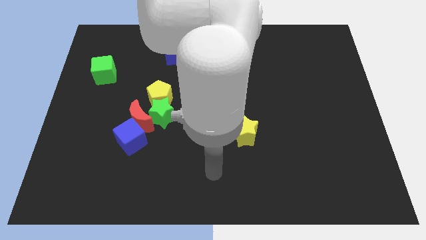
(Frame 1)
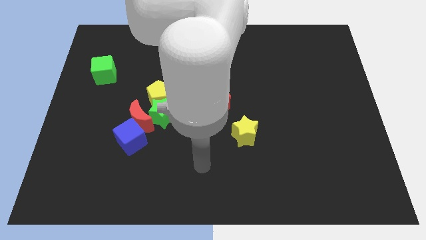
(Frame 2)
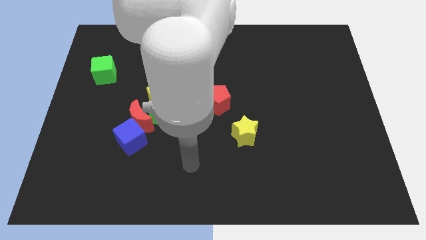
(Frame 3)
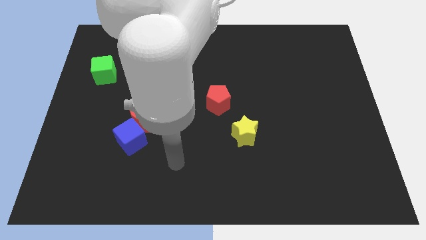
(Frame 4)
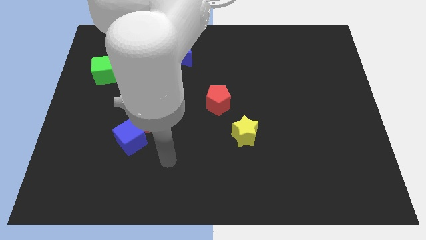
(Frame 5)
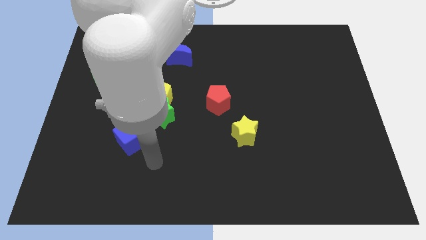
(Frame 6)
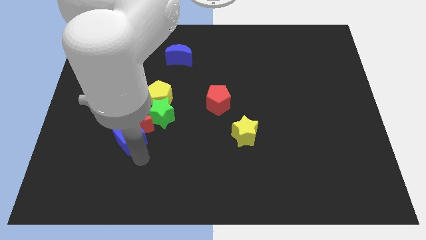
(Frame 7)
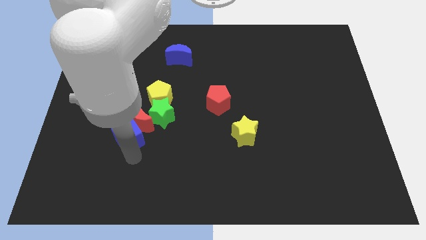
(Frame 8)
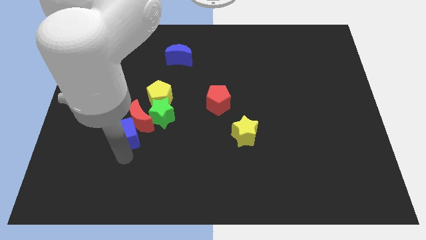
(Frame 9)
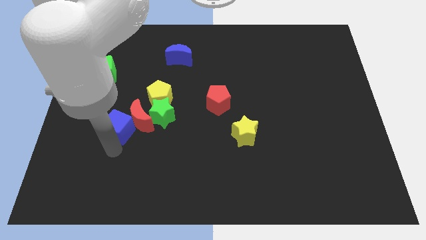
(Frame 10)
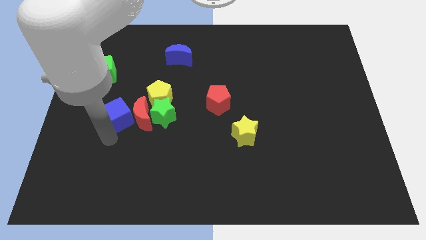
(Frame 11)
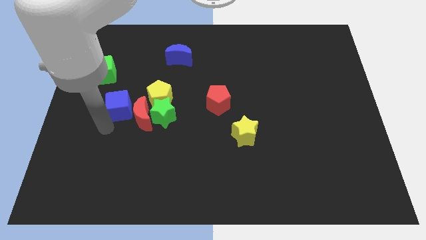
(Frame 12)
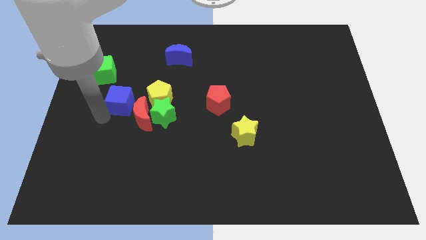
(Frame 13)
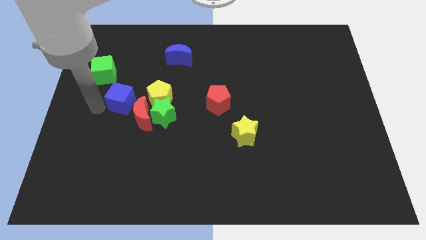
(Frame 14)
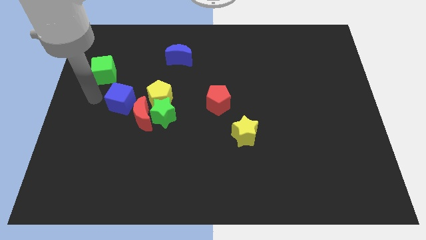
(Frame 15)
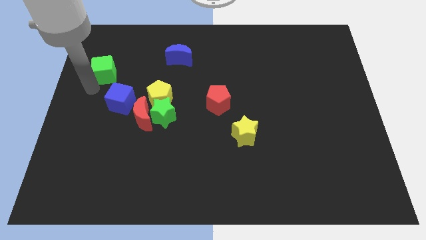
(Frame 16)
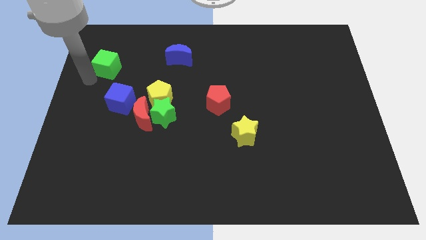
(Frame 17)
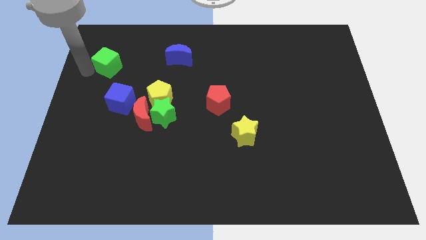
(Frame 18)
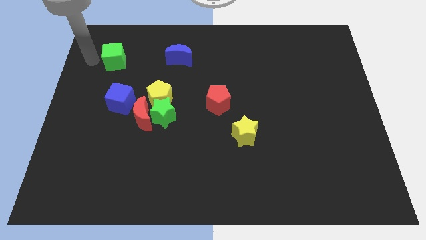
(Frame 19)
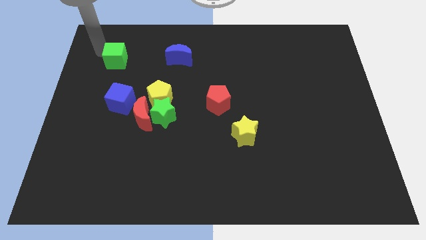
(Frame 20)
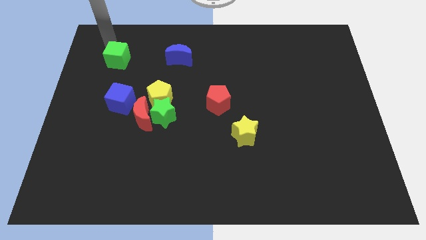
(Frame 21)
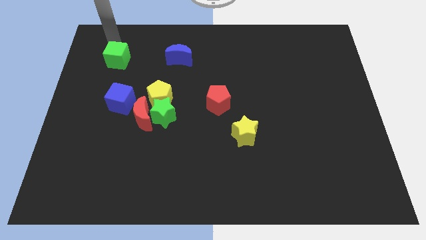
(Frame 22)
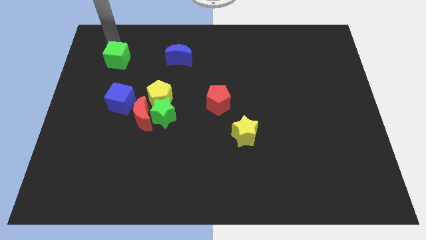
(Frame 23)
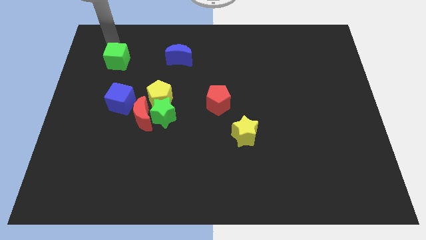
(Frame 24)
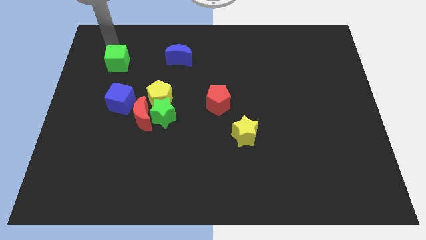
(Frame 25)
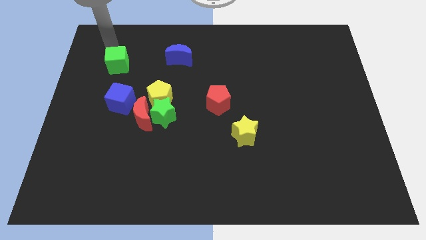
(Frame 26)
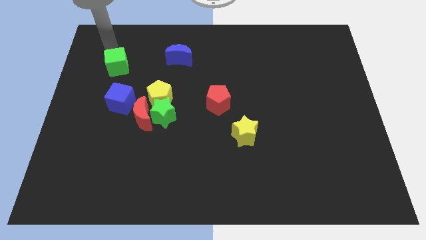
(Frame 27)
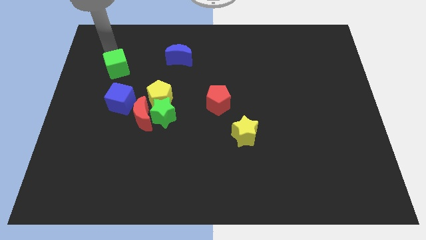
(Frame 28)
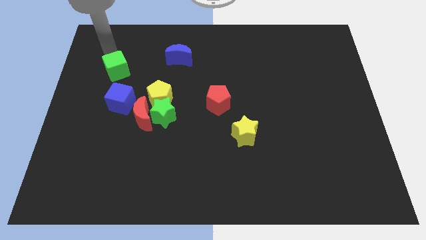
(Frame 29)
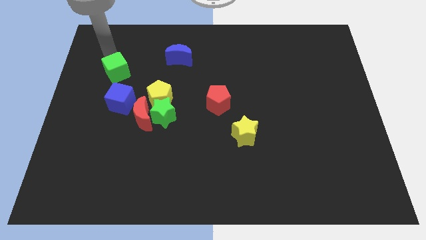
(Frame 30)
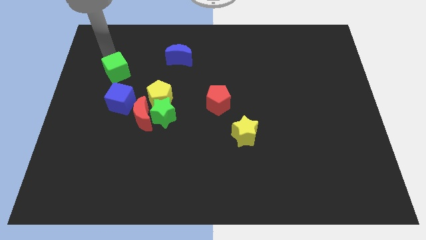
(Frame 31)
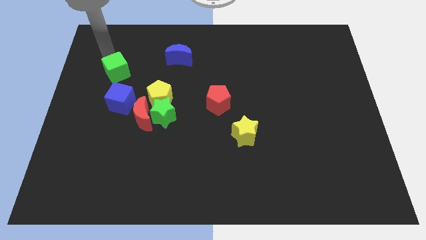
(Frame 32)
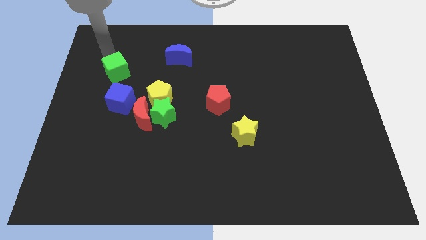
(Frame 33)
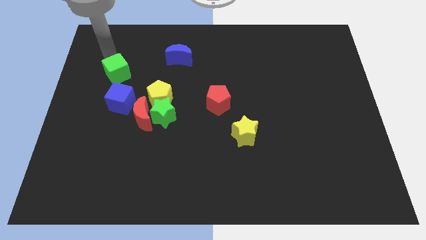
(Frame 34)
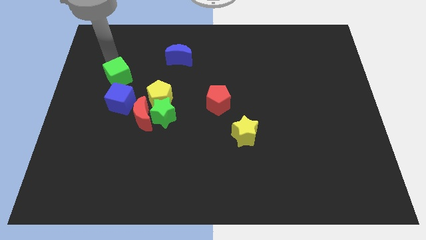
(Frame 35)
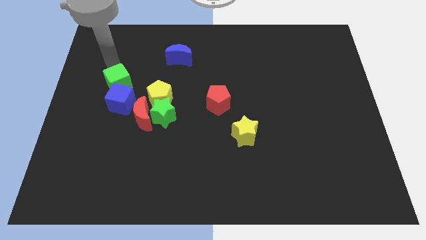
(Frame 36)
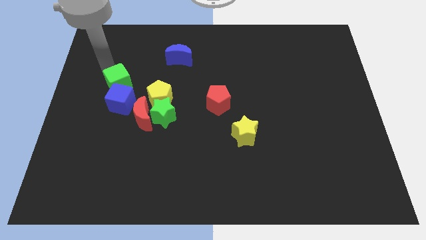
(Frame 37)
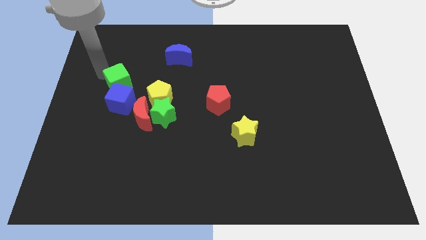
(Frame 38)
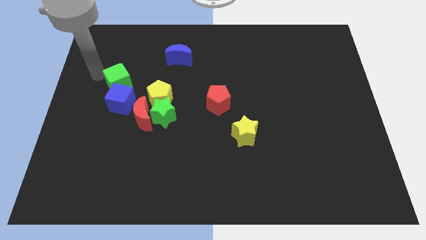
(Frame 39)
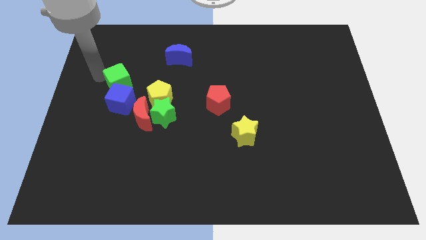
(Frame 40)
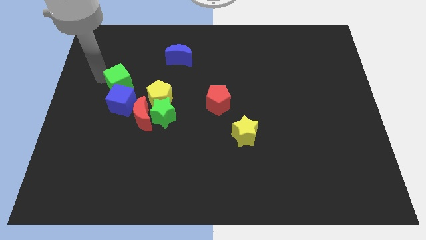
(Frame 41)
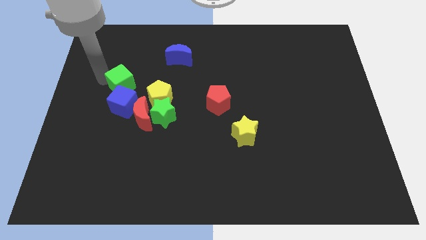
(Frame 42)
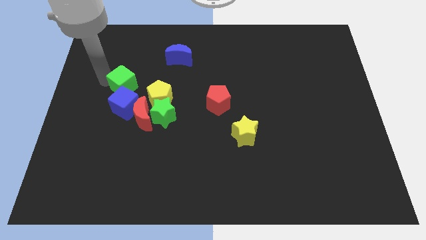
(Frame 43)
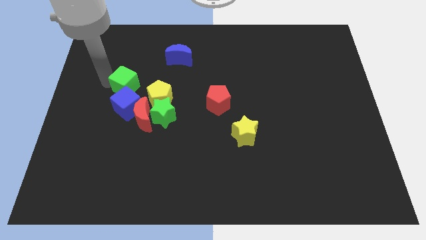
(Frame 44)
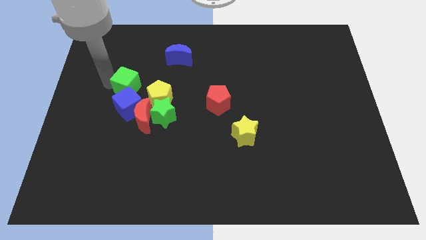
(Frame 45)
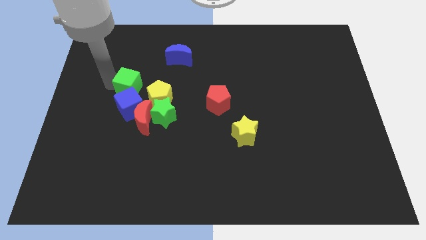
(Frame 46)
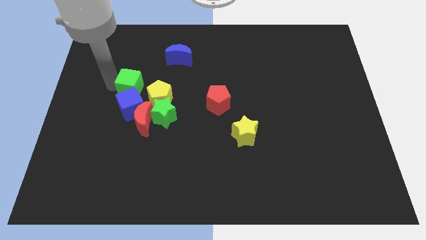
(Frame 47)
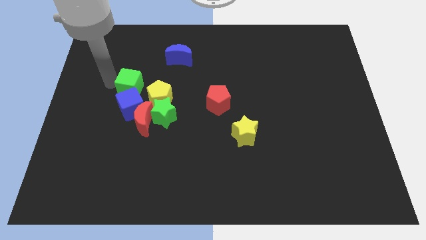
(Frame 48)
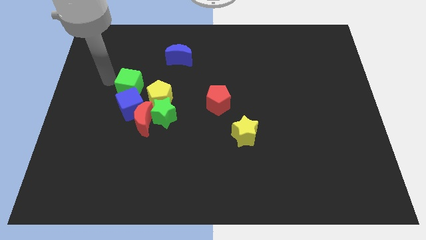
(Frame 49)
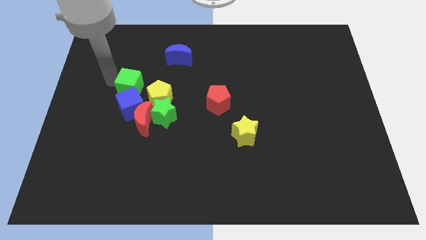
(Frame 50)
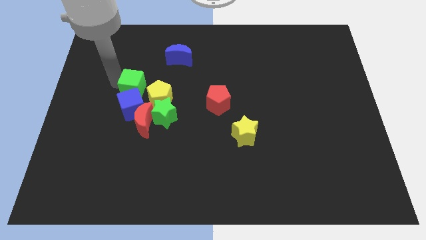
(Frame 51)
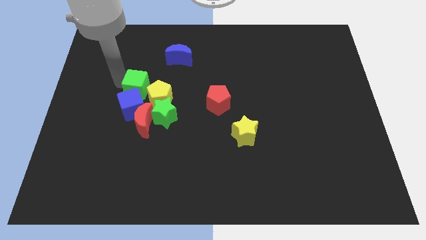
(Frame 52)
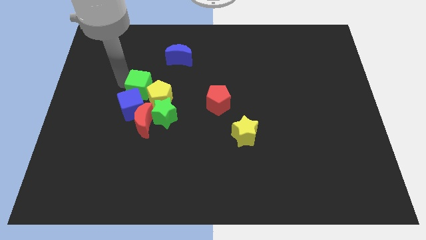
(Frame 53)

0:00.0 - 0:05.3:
move the green cube next to the yellow pentagon

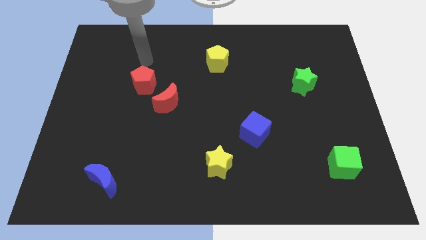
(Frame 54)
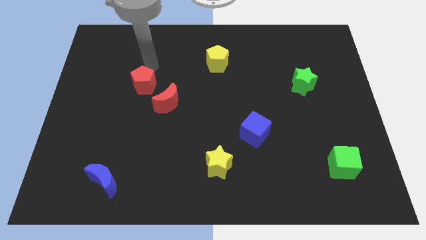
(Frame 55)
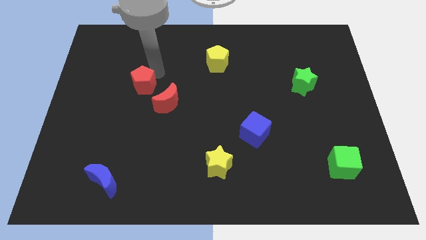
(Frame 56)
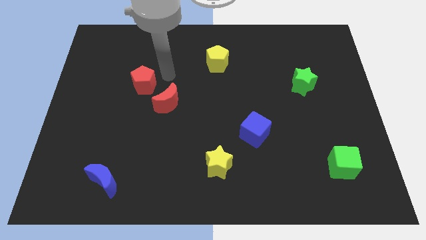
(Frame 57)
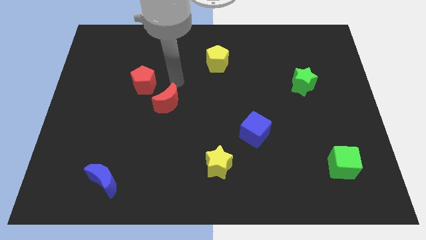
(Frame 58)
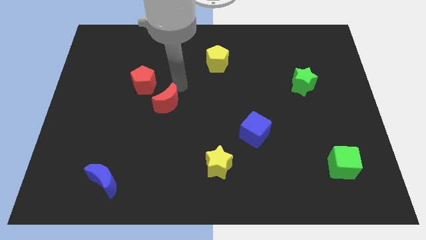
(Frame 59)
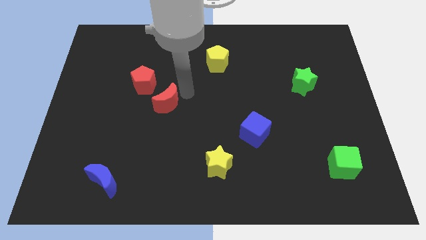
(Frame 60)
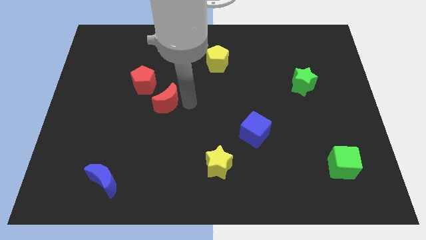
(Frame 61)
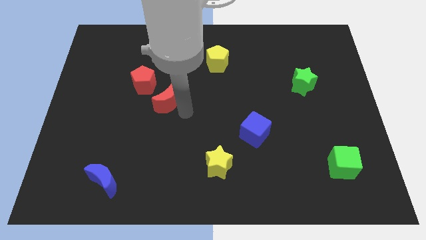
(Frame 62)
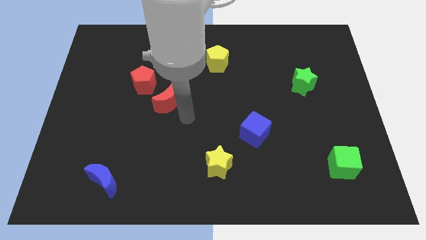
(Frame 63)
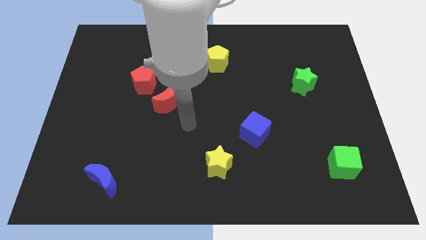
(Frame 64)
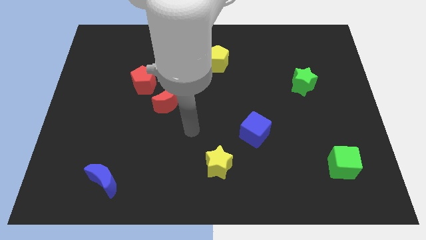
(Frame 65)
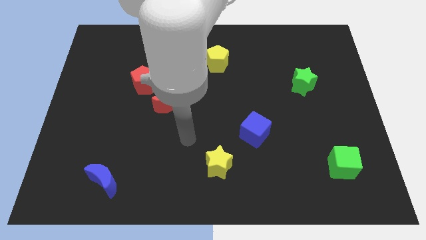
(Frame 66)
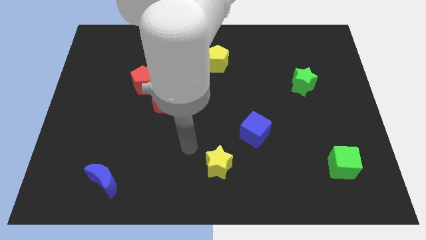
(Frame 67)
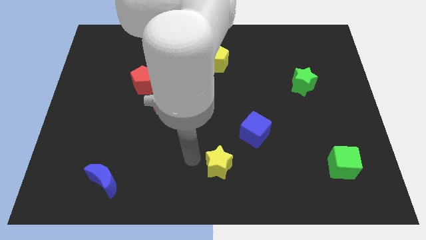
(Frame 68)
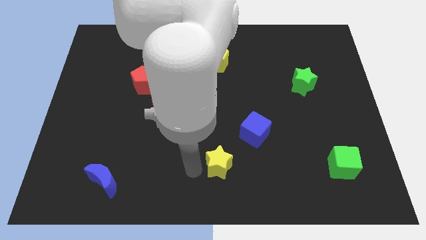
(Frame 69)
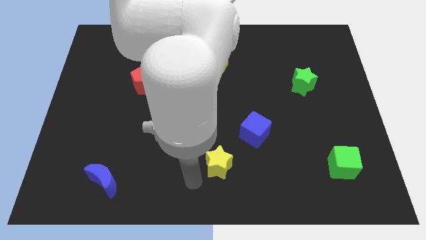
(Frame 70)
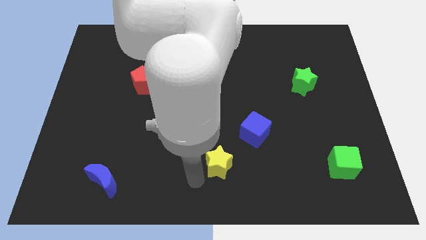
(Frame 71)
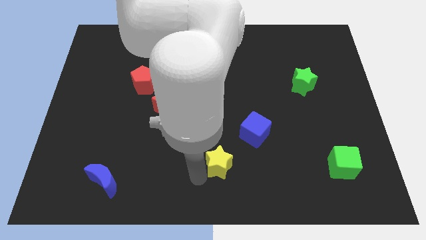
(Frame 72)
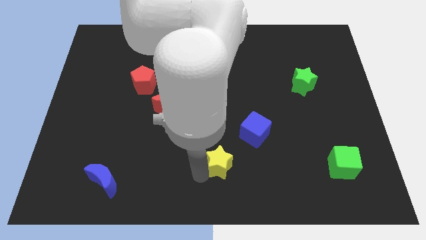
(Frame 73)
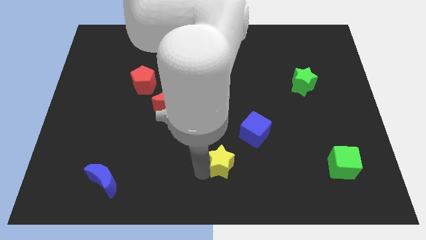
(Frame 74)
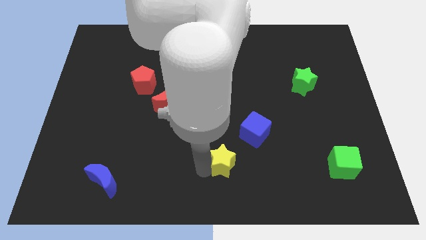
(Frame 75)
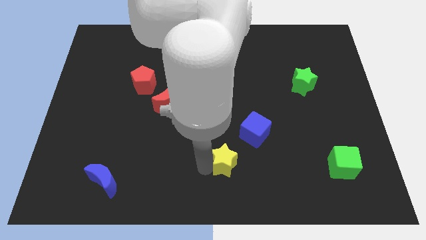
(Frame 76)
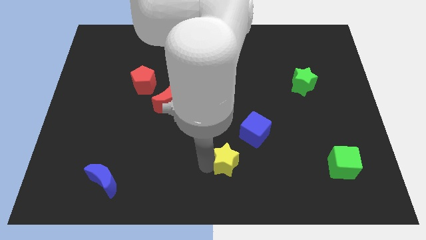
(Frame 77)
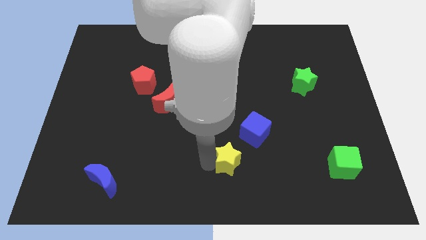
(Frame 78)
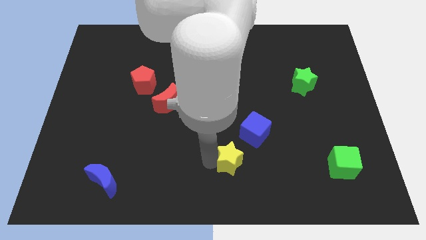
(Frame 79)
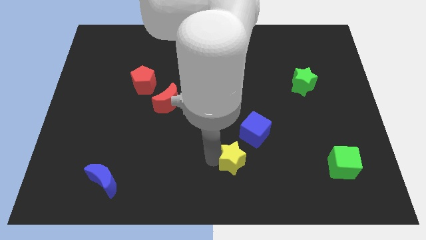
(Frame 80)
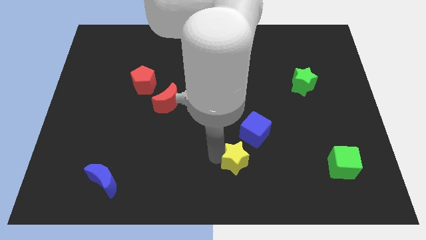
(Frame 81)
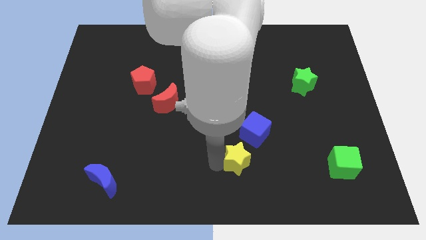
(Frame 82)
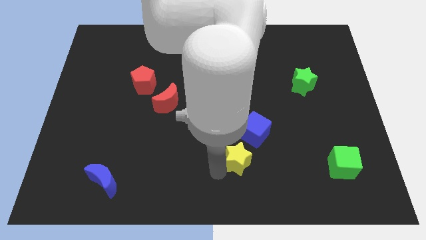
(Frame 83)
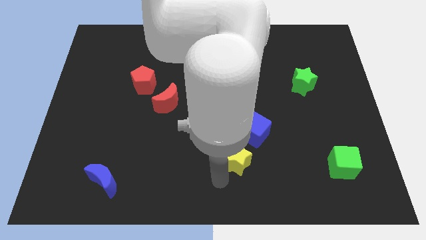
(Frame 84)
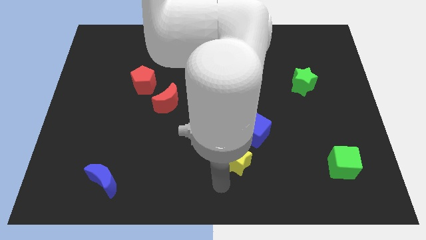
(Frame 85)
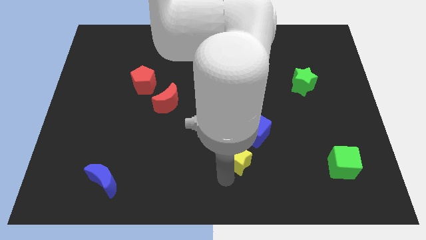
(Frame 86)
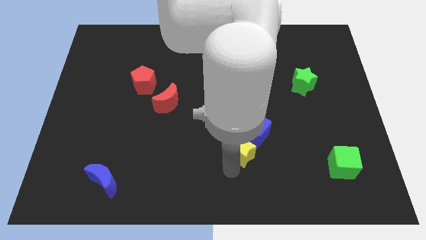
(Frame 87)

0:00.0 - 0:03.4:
push the yellow star next to the blue cube
